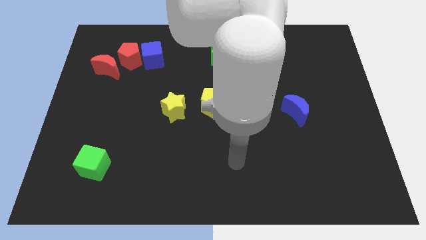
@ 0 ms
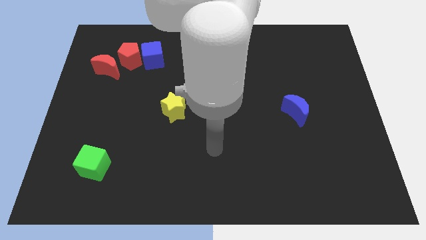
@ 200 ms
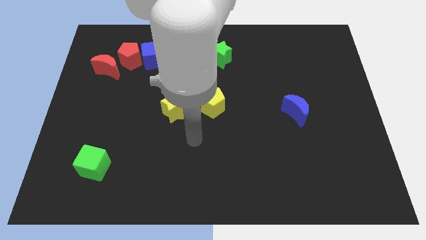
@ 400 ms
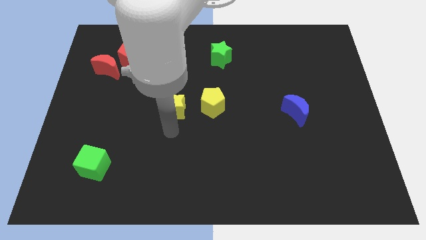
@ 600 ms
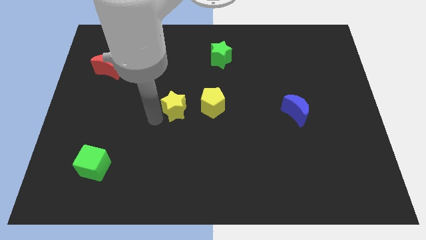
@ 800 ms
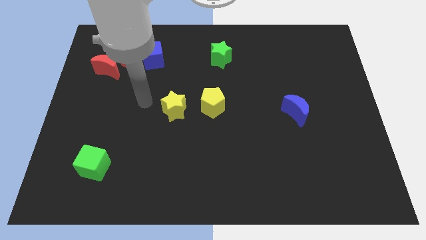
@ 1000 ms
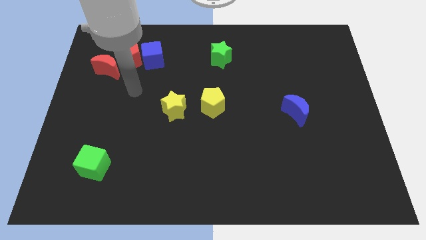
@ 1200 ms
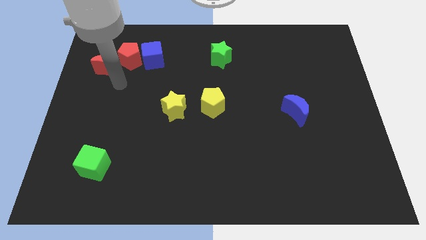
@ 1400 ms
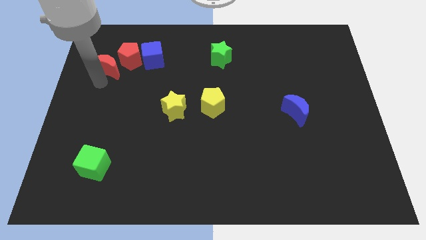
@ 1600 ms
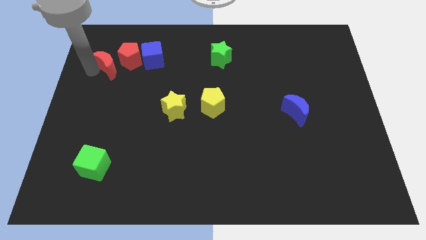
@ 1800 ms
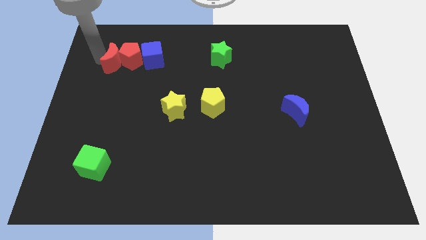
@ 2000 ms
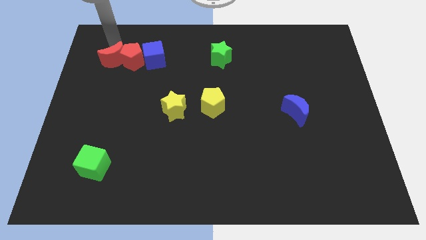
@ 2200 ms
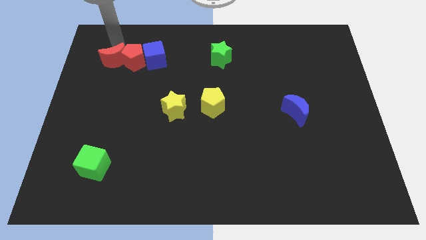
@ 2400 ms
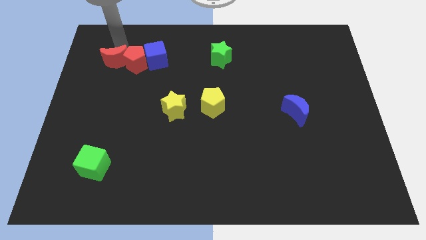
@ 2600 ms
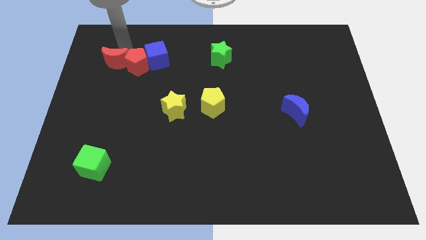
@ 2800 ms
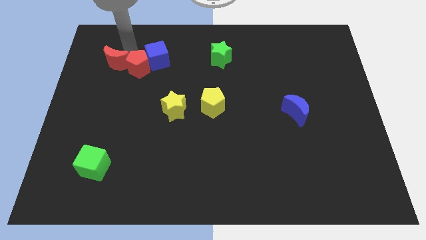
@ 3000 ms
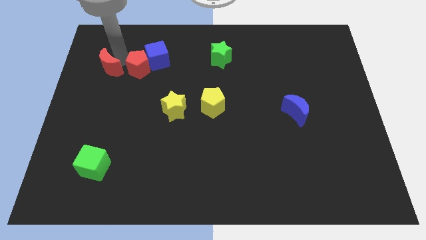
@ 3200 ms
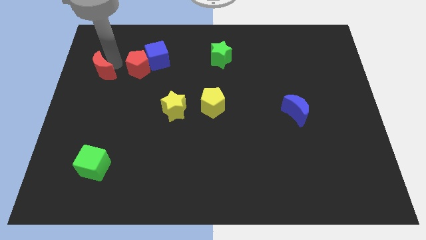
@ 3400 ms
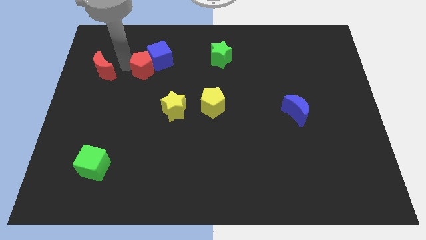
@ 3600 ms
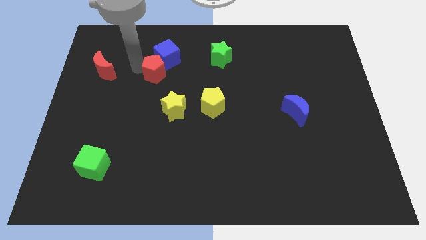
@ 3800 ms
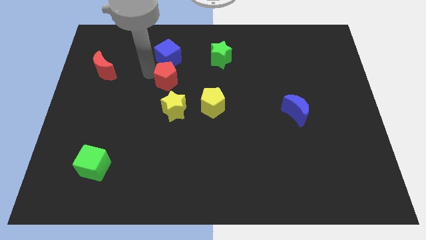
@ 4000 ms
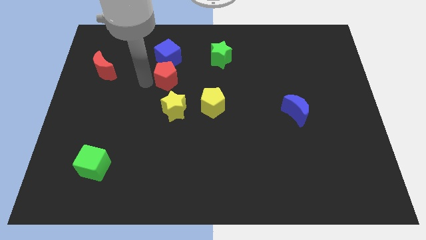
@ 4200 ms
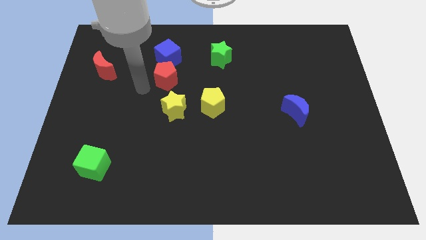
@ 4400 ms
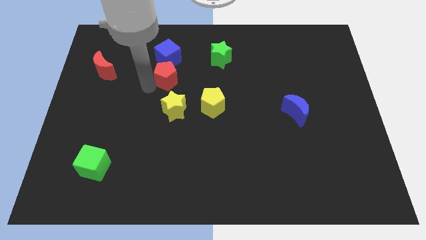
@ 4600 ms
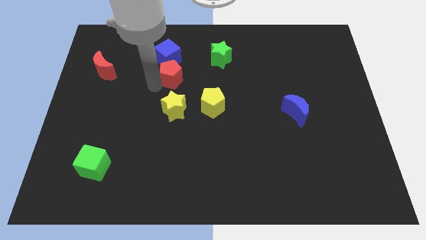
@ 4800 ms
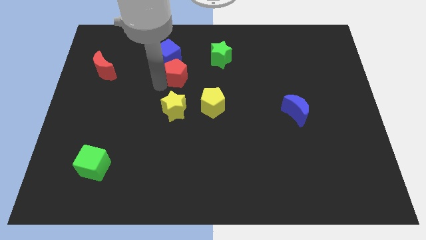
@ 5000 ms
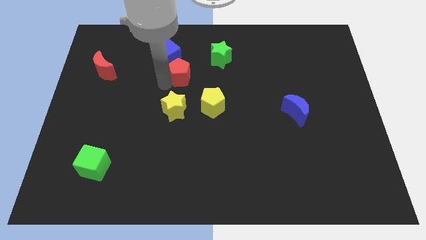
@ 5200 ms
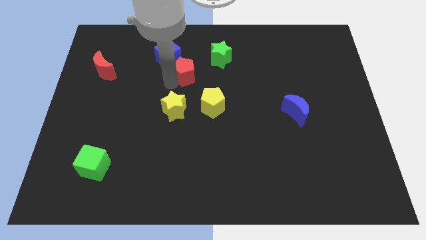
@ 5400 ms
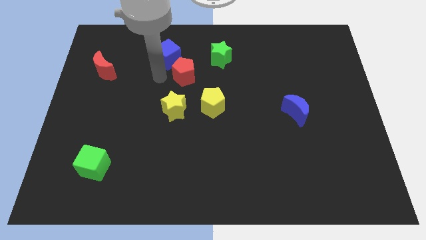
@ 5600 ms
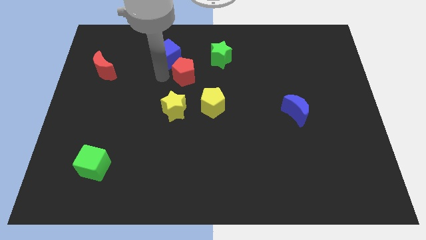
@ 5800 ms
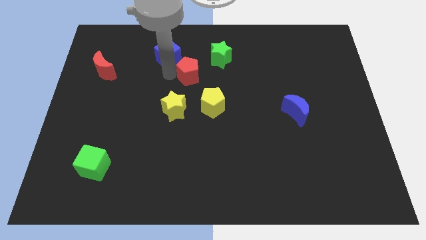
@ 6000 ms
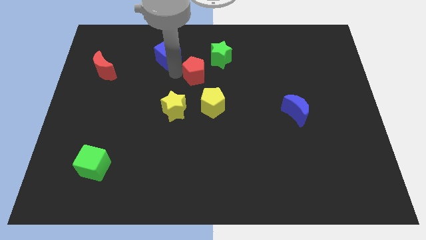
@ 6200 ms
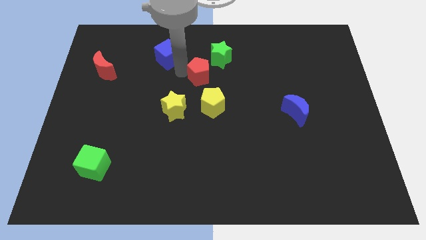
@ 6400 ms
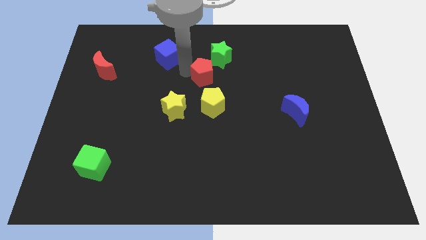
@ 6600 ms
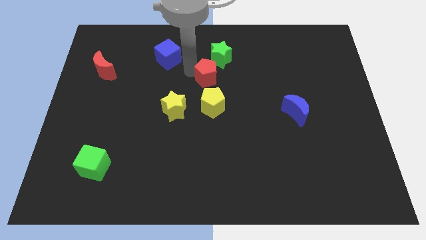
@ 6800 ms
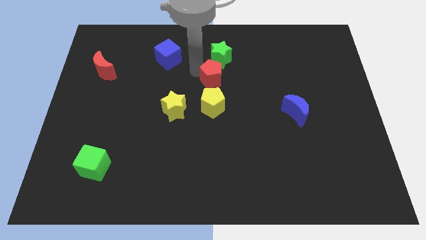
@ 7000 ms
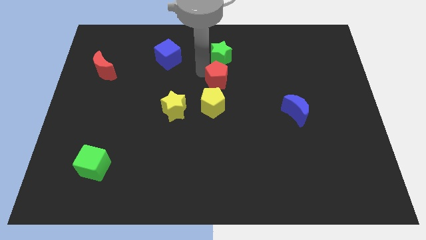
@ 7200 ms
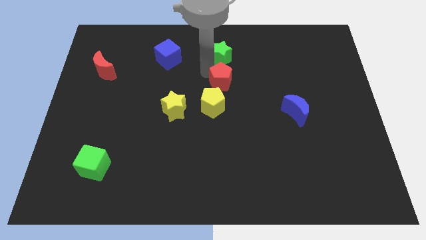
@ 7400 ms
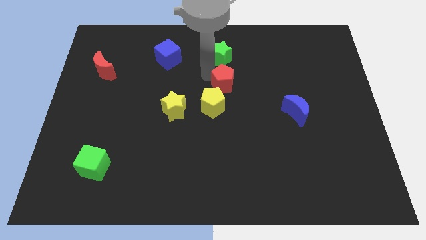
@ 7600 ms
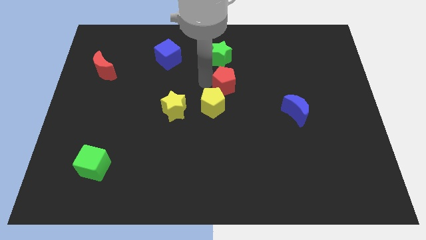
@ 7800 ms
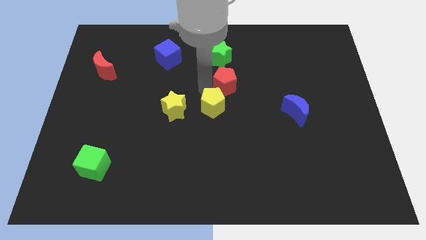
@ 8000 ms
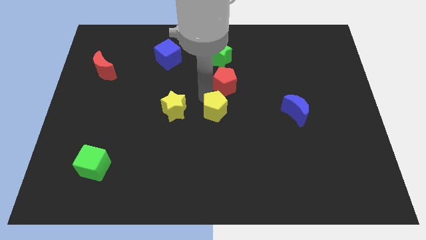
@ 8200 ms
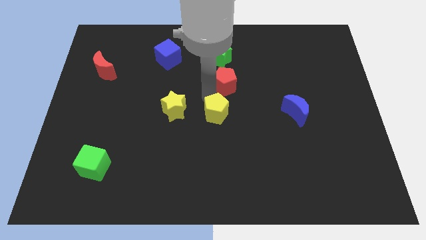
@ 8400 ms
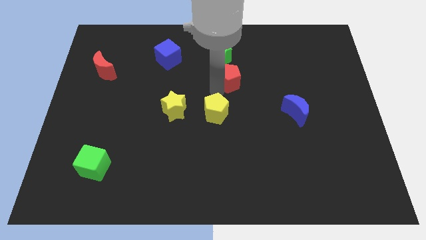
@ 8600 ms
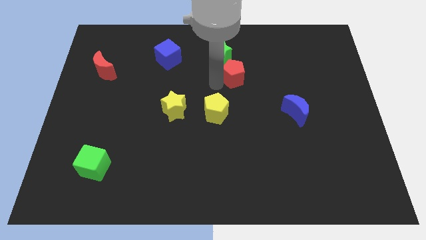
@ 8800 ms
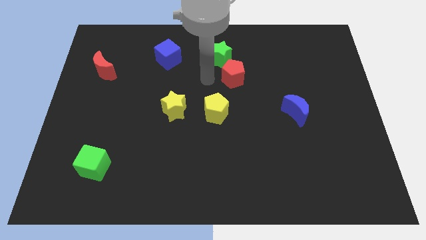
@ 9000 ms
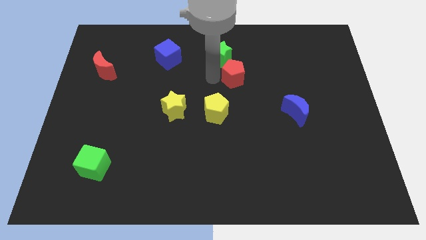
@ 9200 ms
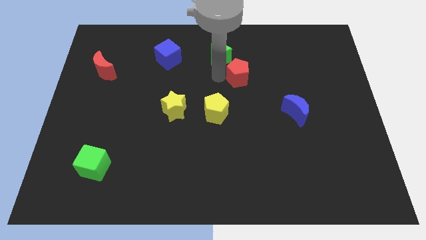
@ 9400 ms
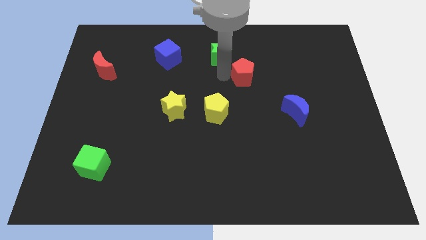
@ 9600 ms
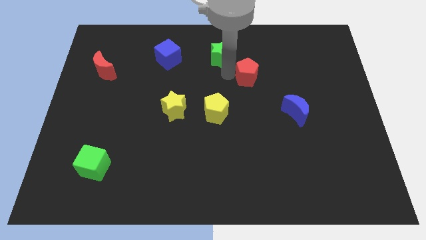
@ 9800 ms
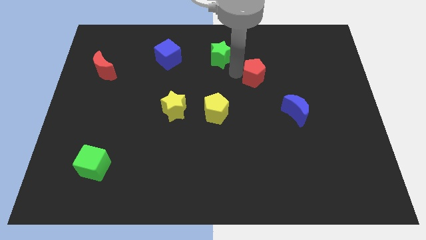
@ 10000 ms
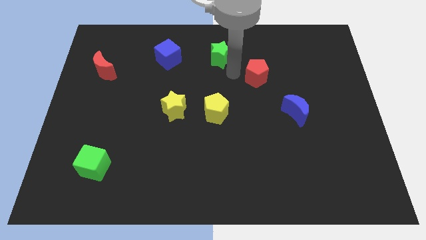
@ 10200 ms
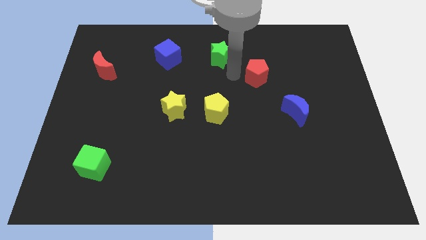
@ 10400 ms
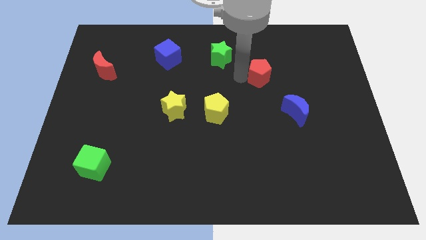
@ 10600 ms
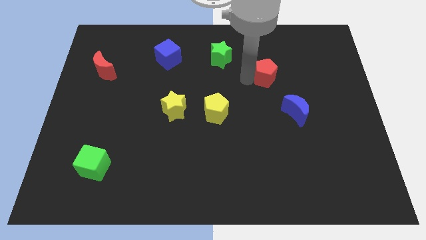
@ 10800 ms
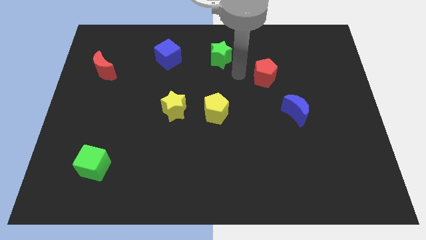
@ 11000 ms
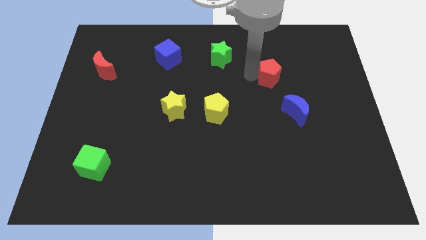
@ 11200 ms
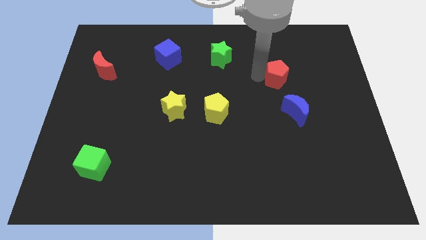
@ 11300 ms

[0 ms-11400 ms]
put the red pentagon above the blue moon

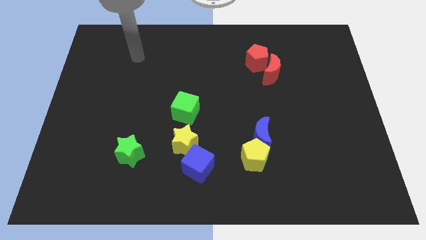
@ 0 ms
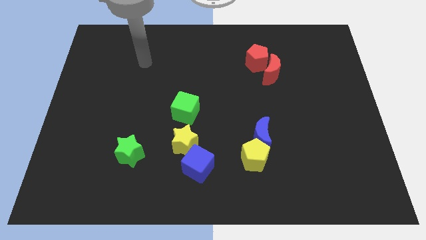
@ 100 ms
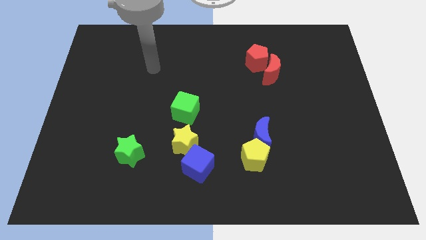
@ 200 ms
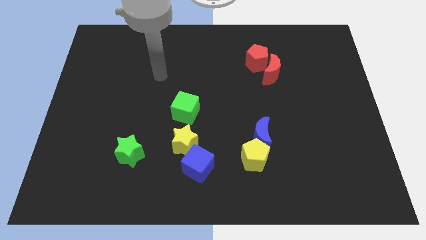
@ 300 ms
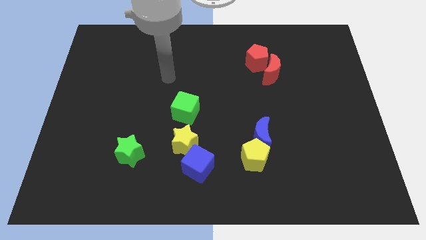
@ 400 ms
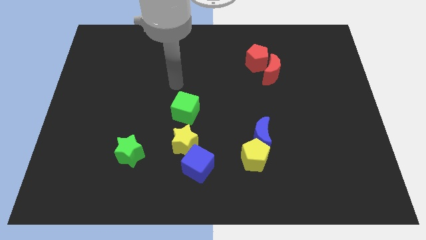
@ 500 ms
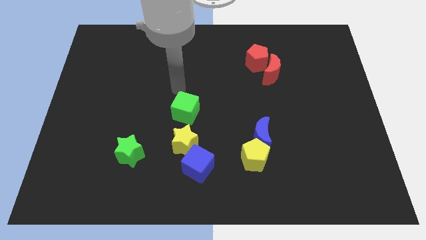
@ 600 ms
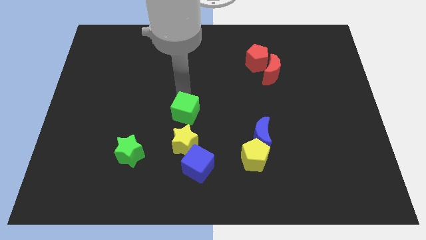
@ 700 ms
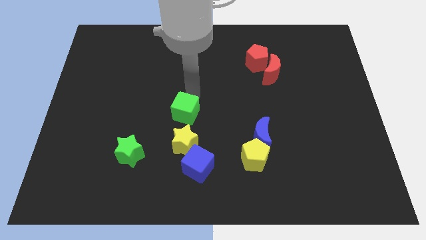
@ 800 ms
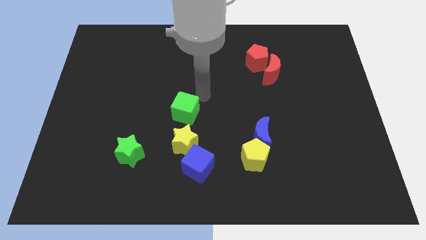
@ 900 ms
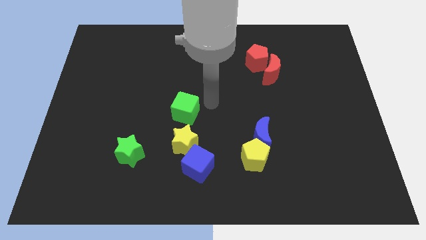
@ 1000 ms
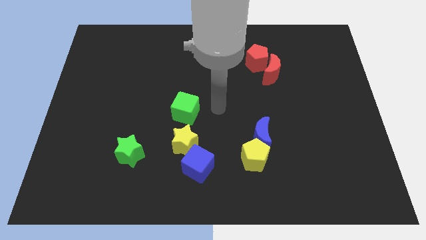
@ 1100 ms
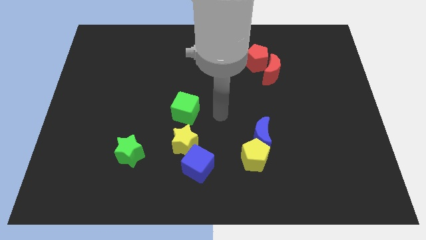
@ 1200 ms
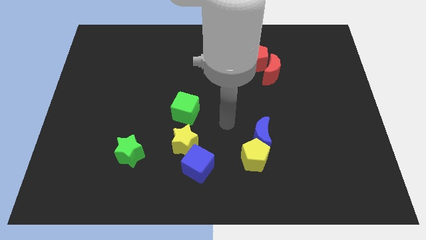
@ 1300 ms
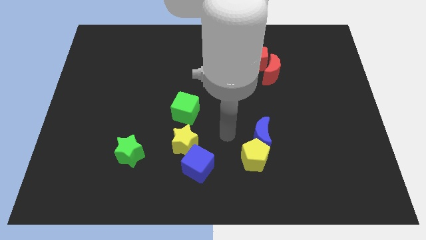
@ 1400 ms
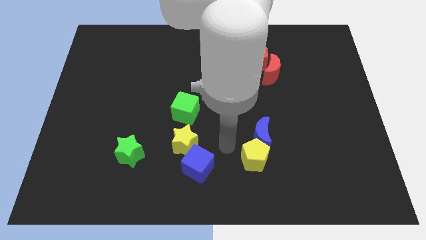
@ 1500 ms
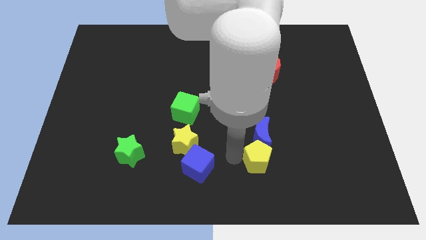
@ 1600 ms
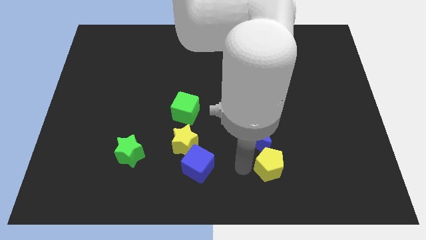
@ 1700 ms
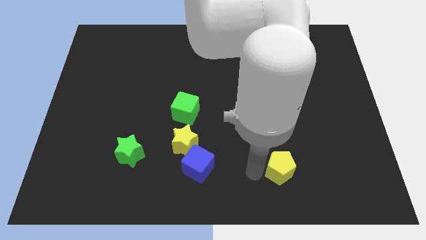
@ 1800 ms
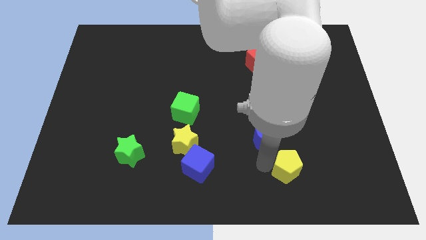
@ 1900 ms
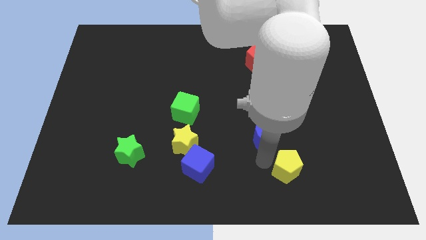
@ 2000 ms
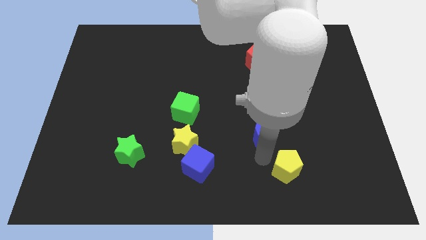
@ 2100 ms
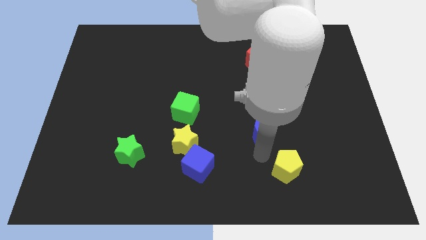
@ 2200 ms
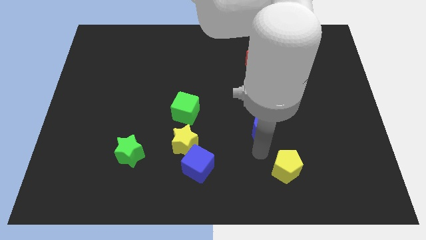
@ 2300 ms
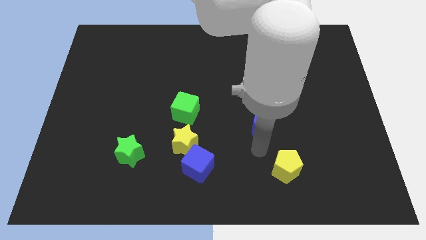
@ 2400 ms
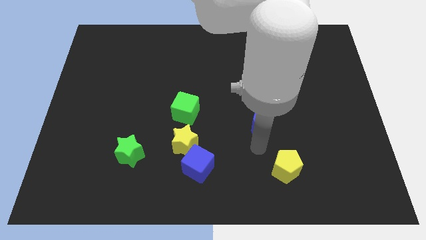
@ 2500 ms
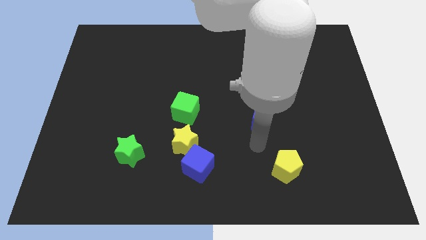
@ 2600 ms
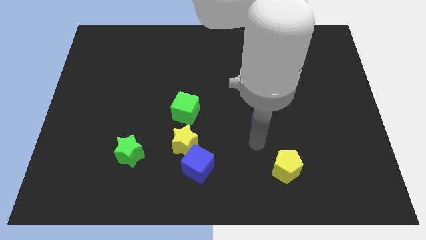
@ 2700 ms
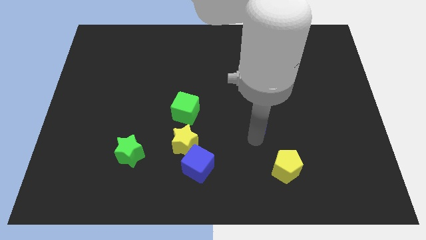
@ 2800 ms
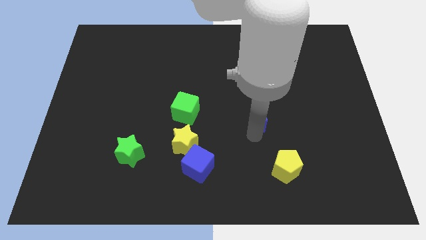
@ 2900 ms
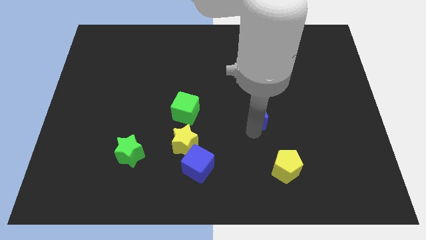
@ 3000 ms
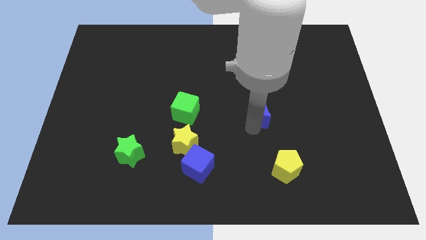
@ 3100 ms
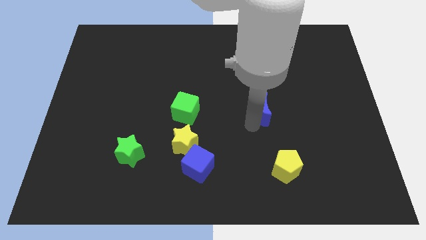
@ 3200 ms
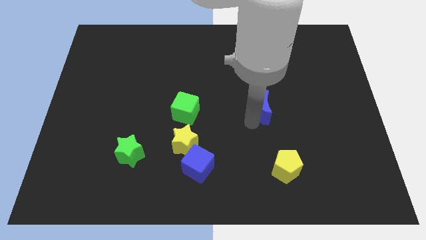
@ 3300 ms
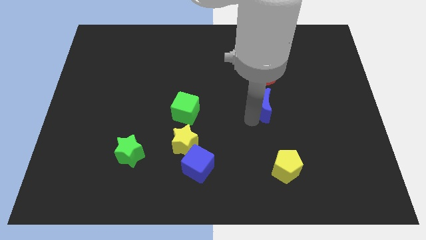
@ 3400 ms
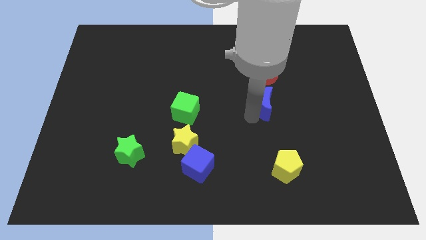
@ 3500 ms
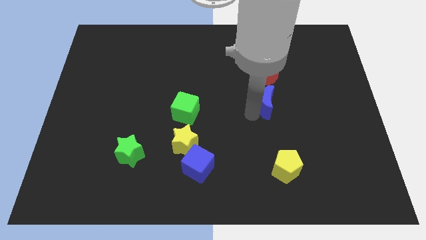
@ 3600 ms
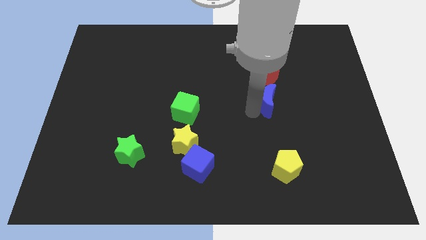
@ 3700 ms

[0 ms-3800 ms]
put the blue moon to the bottom left side of the red moon
